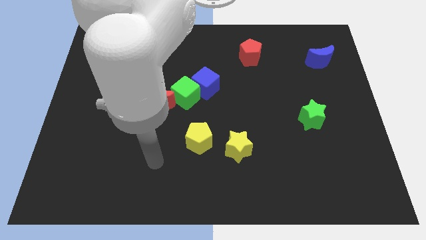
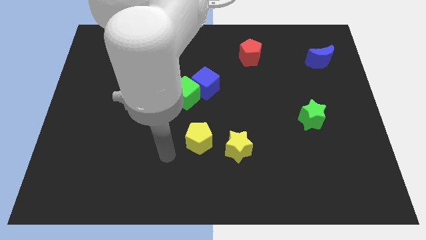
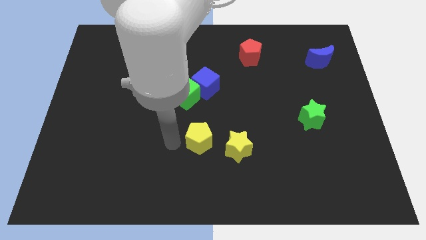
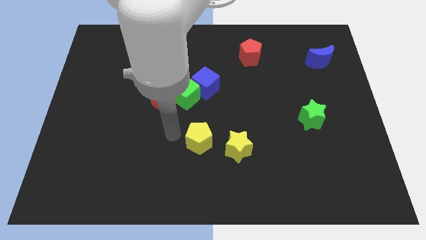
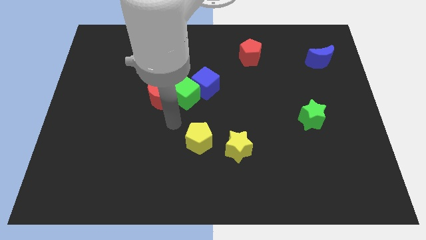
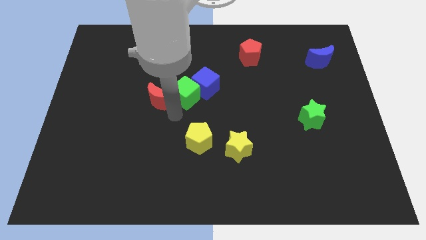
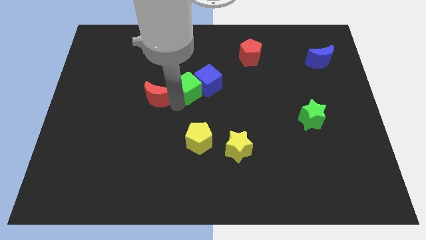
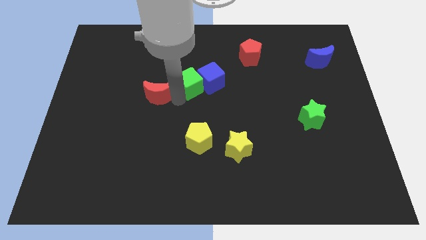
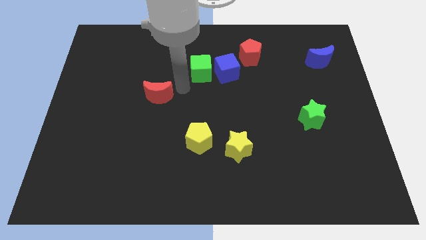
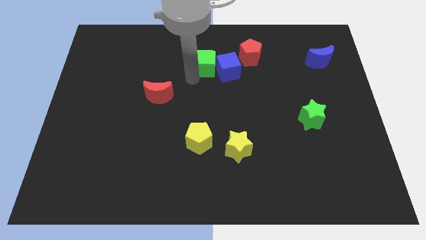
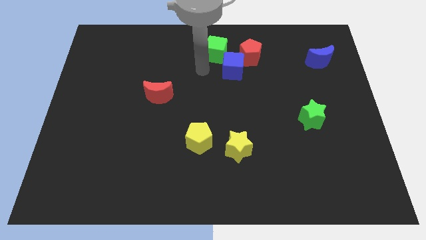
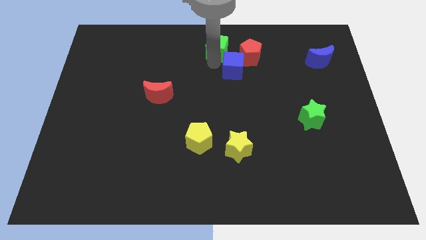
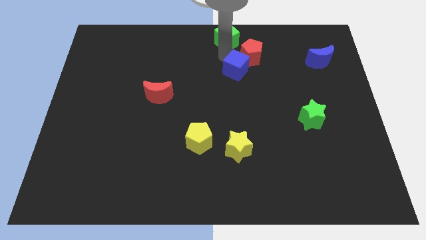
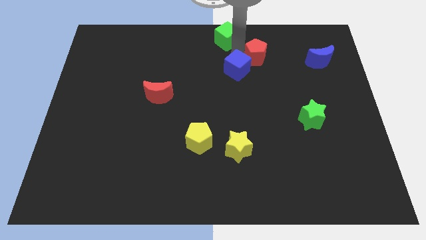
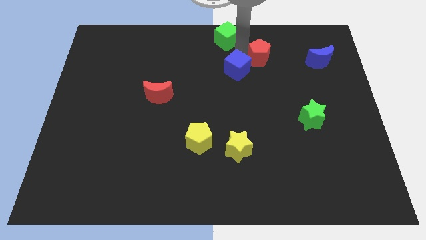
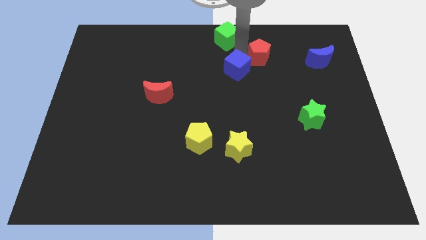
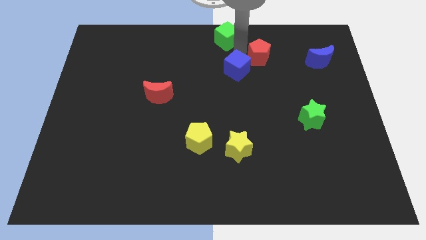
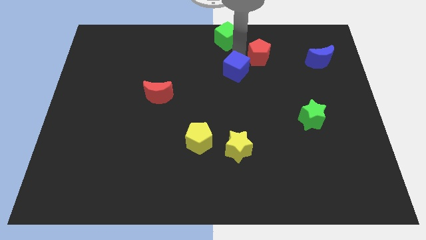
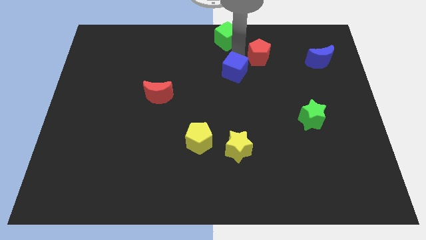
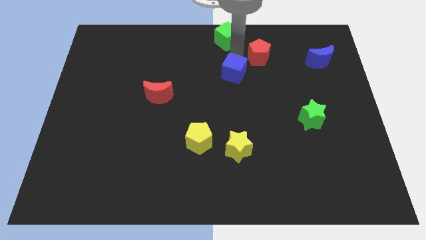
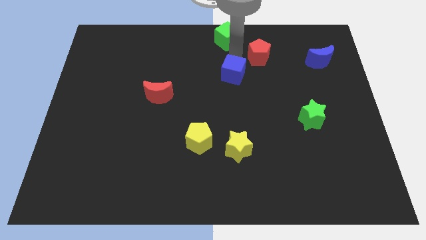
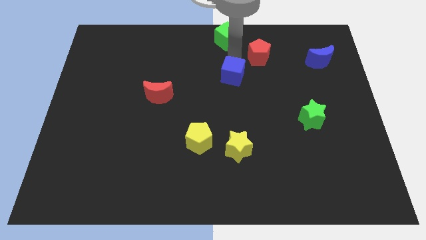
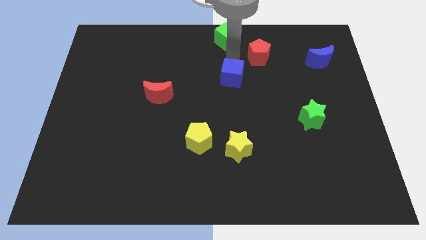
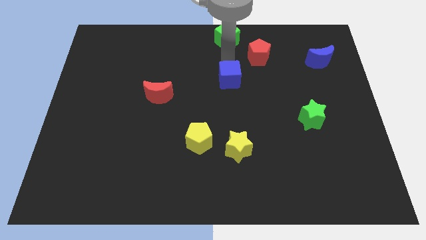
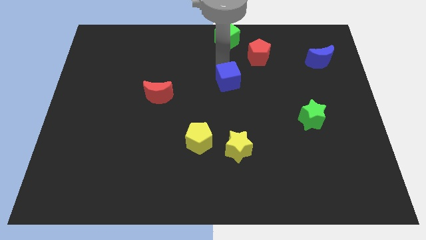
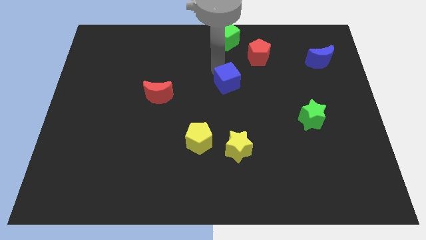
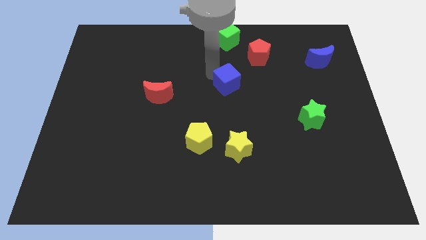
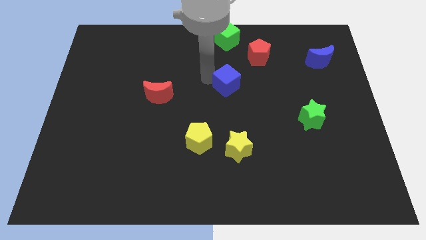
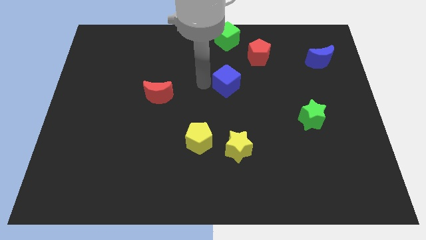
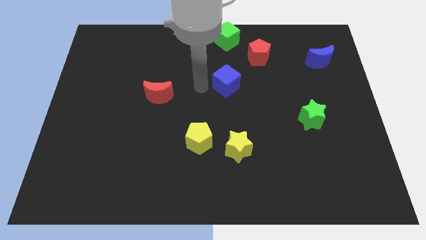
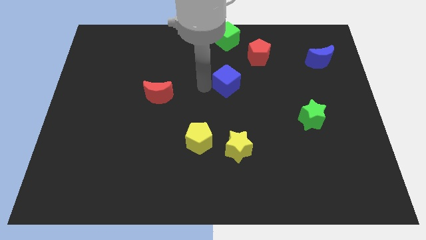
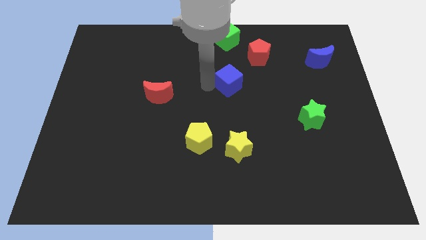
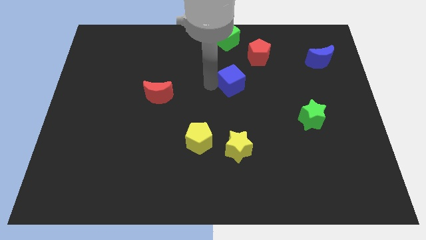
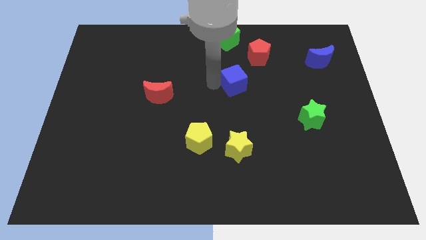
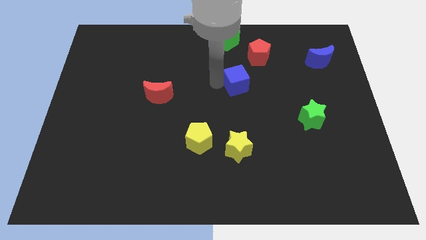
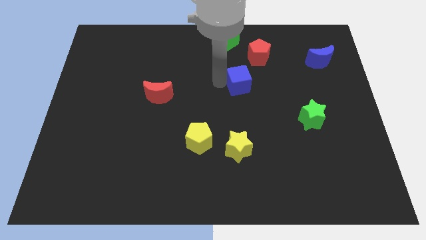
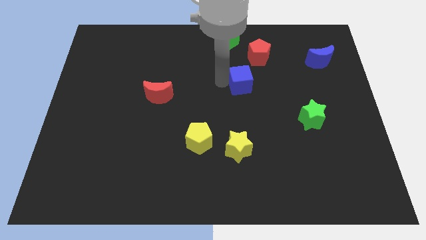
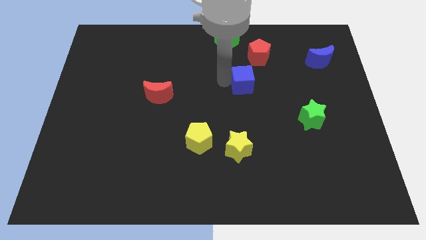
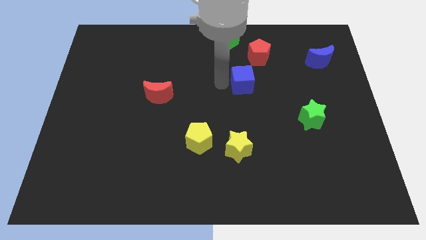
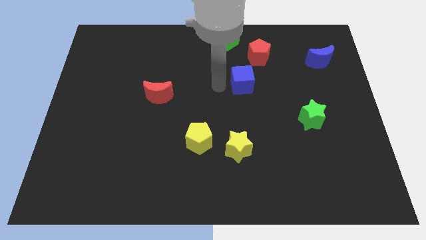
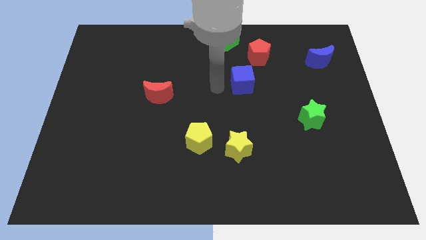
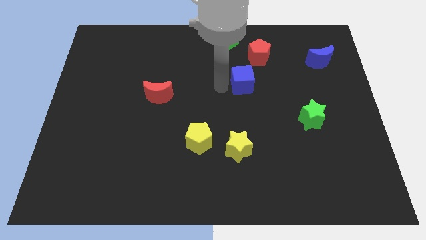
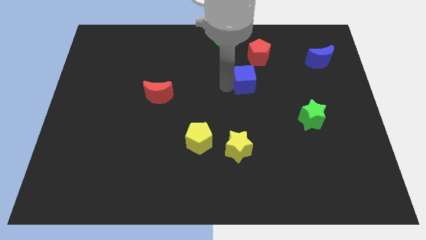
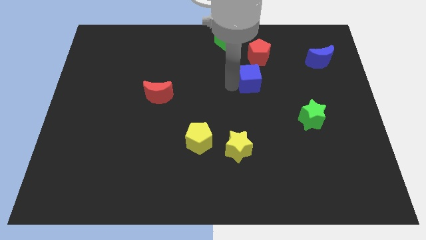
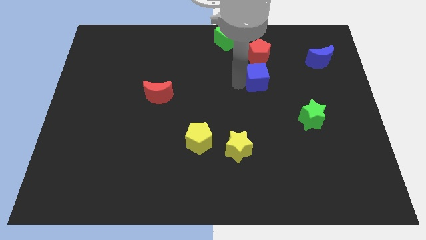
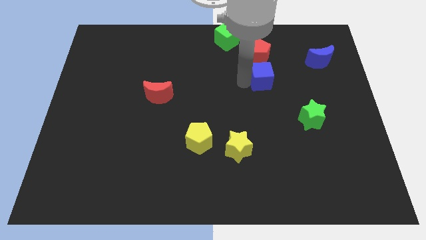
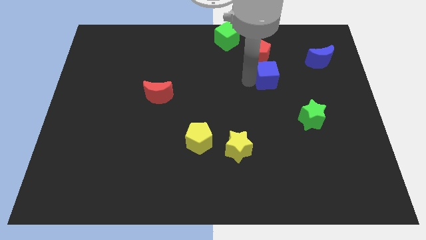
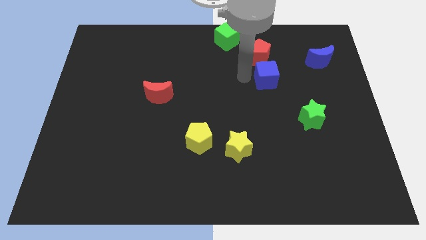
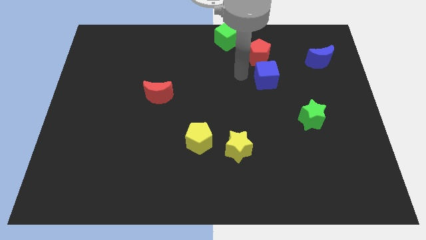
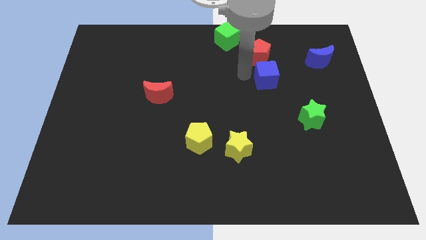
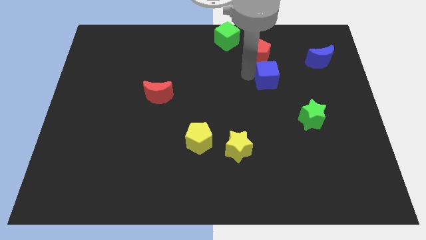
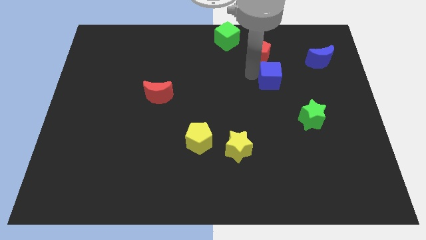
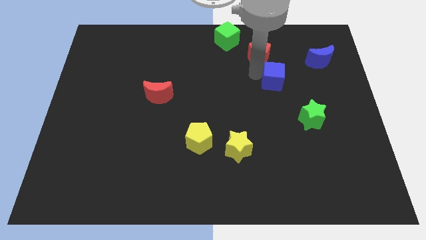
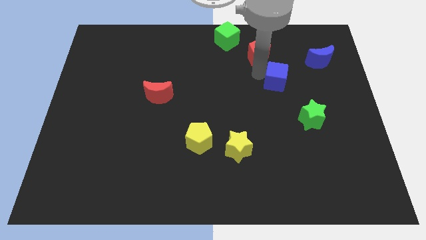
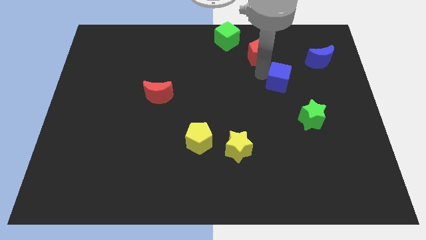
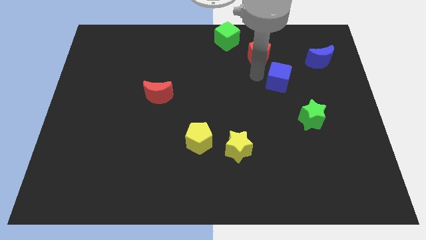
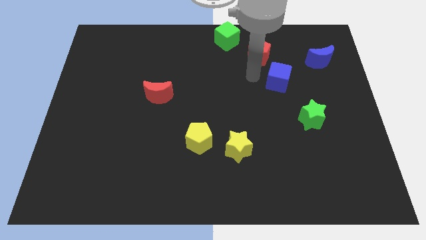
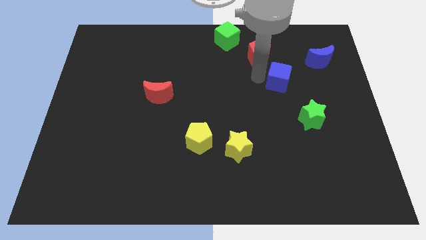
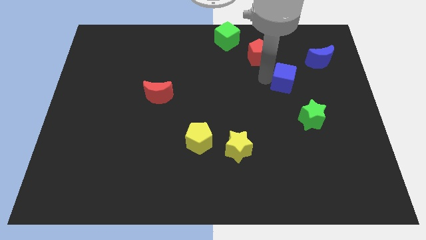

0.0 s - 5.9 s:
put the blue cube to the top of the green star

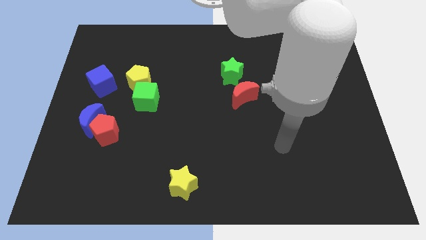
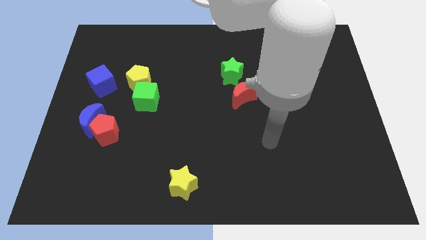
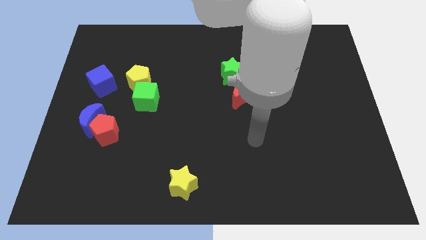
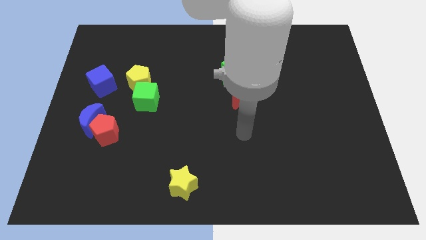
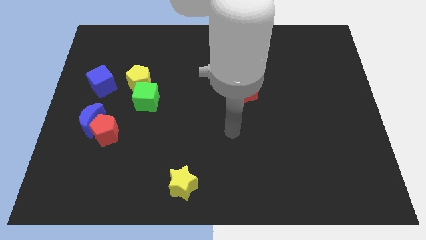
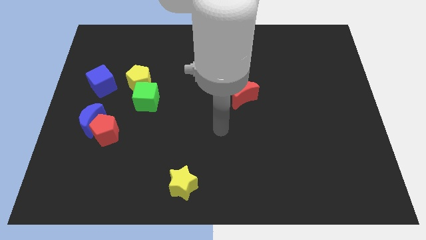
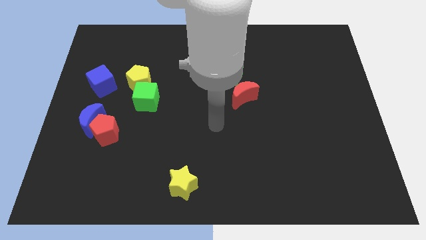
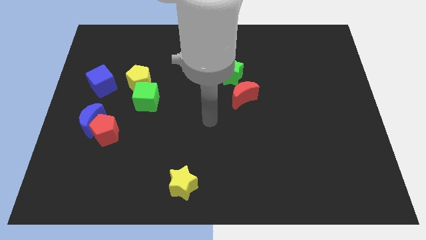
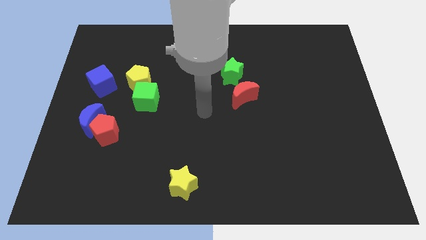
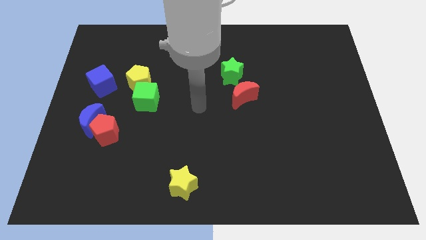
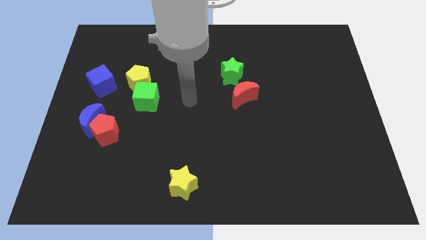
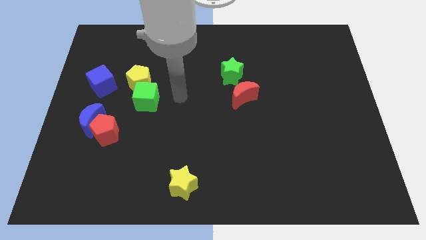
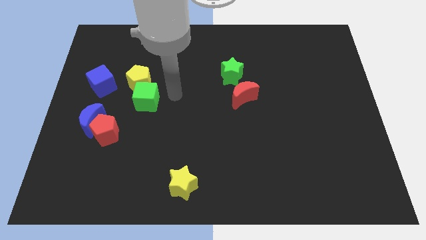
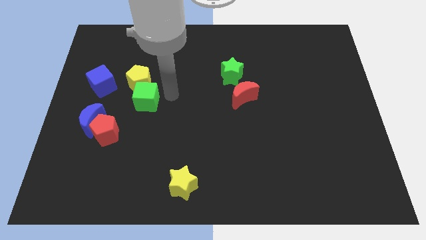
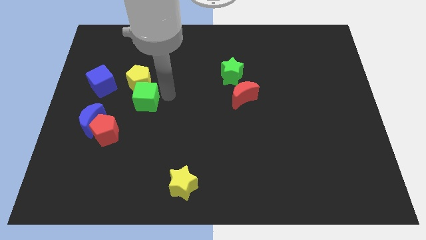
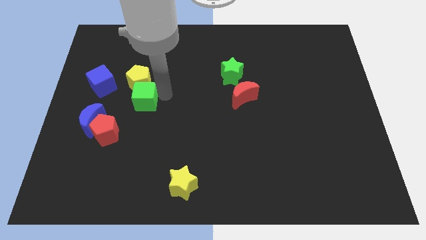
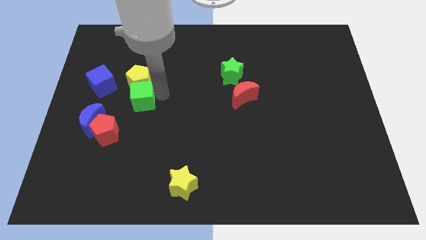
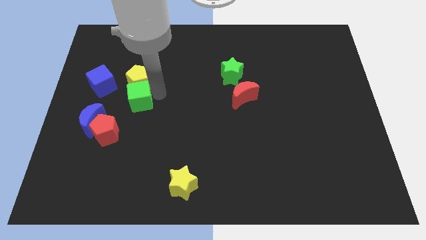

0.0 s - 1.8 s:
move the green cube diagonally up and to the right of the blue moon
